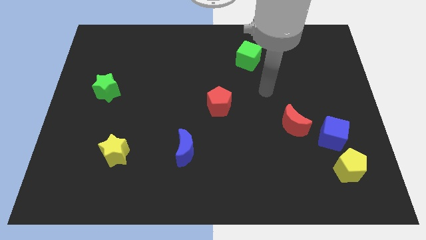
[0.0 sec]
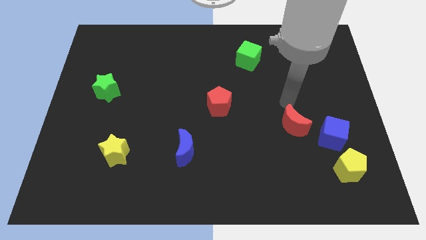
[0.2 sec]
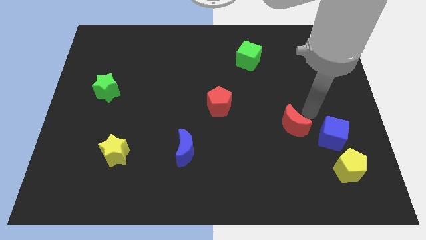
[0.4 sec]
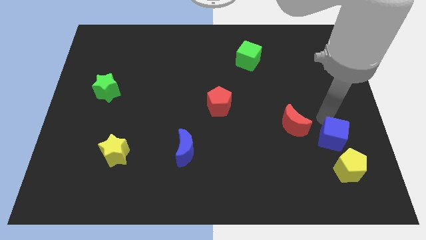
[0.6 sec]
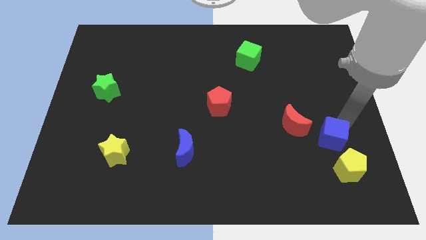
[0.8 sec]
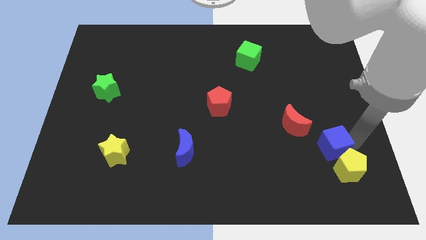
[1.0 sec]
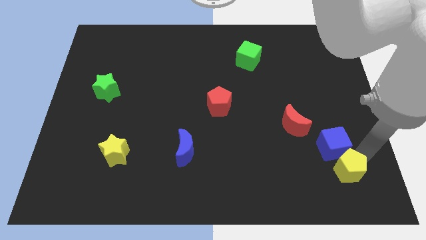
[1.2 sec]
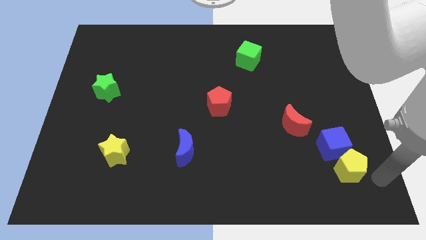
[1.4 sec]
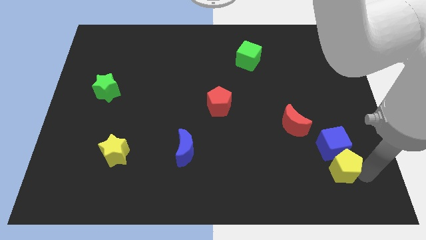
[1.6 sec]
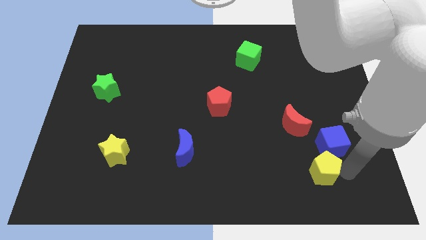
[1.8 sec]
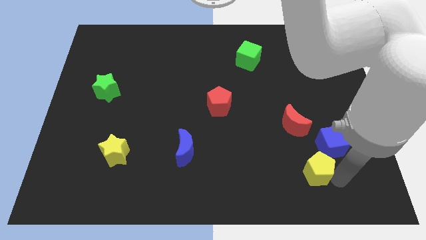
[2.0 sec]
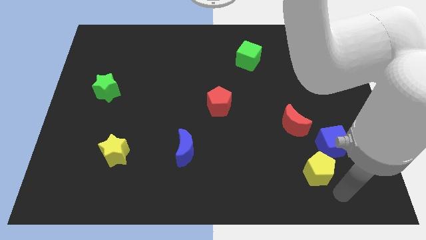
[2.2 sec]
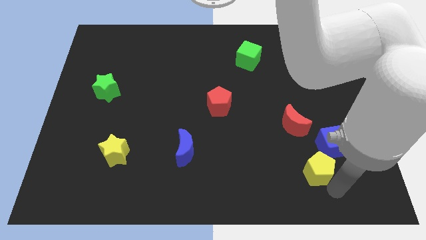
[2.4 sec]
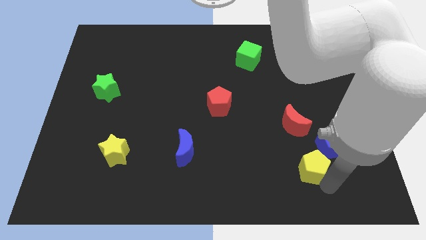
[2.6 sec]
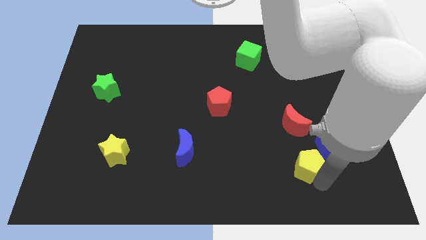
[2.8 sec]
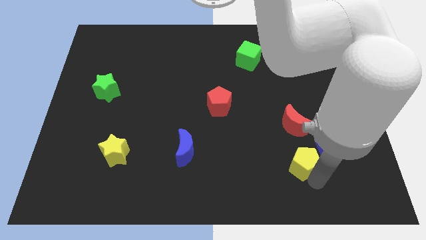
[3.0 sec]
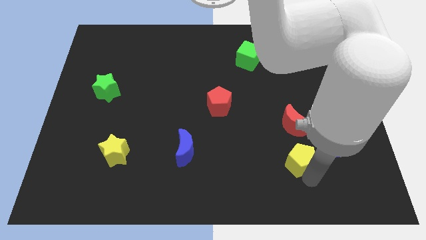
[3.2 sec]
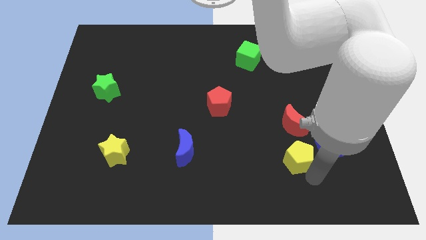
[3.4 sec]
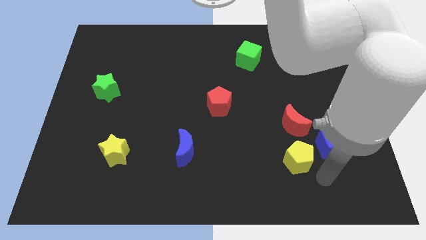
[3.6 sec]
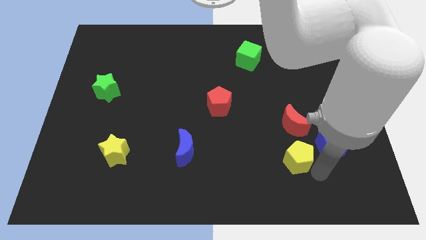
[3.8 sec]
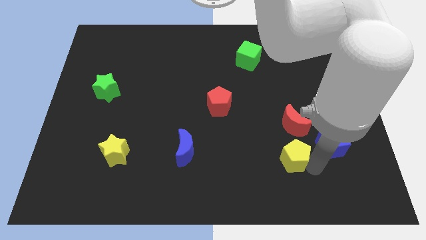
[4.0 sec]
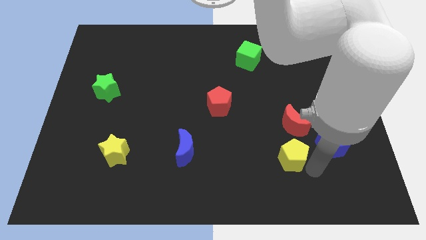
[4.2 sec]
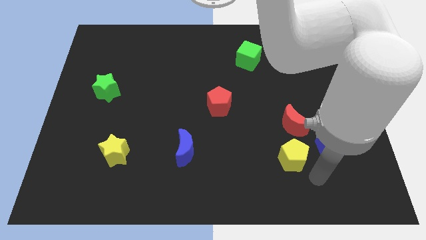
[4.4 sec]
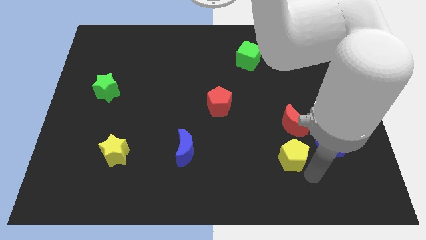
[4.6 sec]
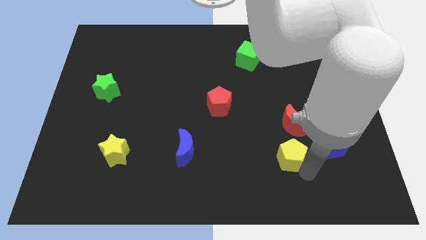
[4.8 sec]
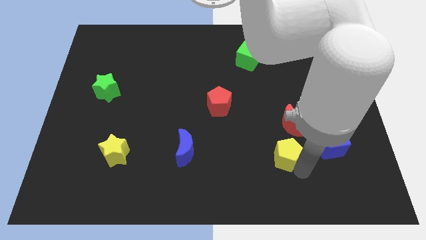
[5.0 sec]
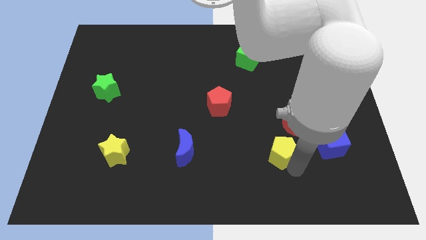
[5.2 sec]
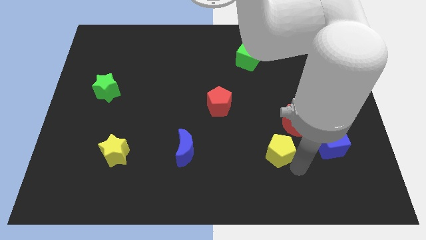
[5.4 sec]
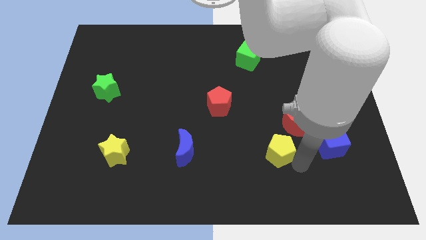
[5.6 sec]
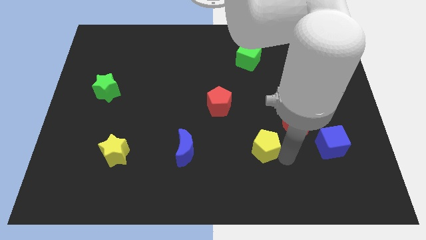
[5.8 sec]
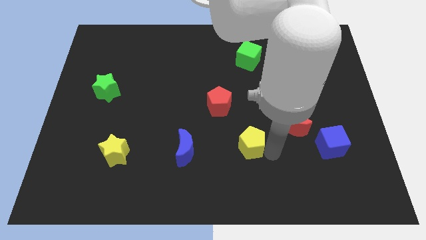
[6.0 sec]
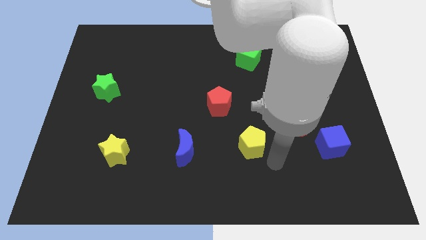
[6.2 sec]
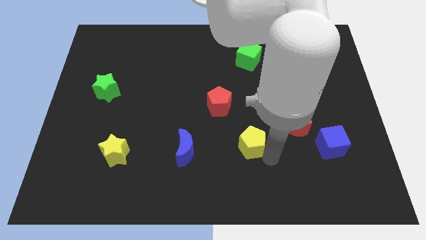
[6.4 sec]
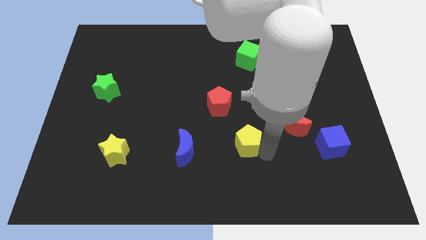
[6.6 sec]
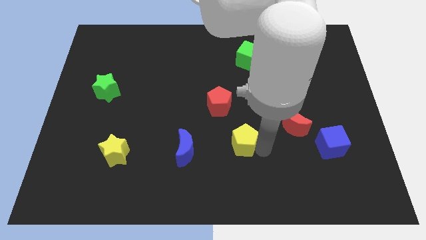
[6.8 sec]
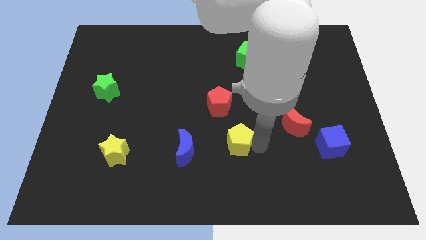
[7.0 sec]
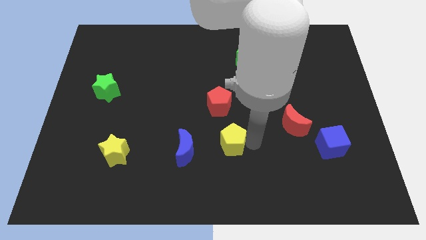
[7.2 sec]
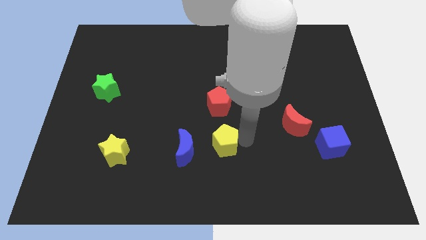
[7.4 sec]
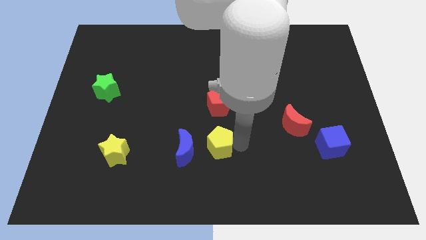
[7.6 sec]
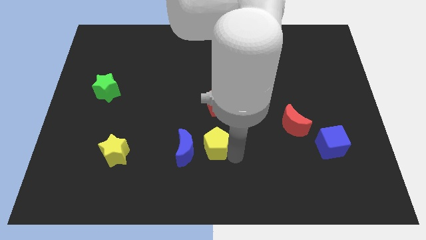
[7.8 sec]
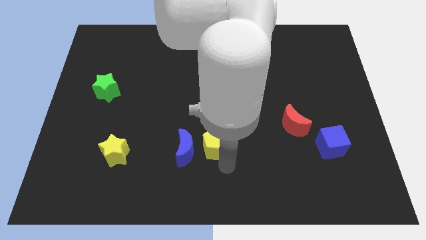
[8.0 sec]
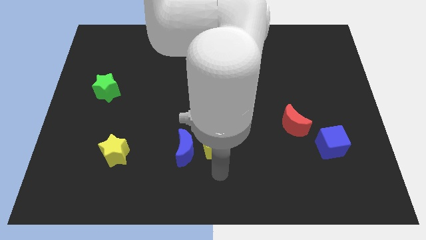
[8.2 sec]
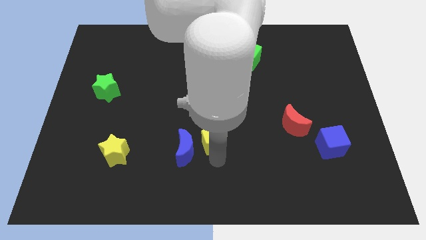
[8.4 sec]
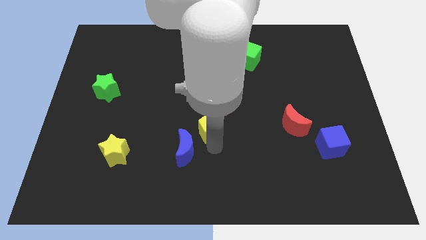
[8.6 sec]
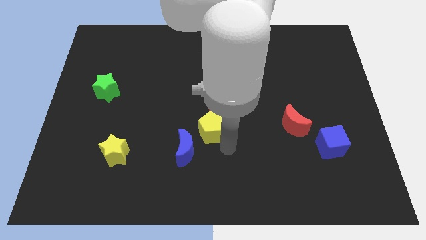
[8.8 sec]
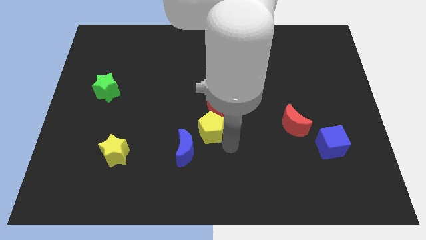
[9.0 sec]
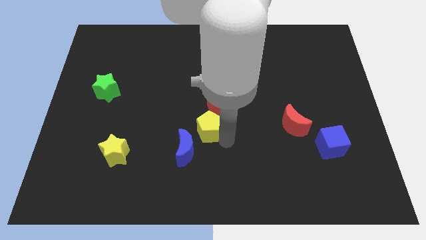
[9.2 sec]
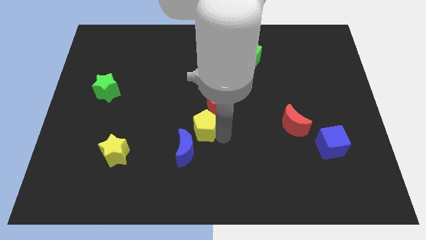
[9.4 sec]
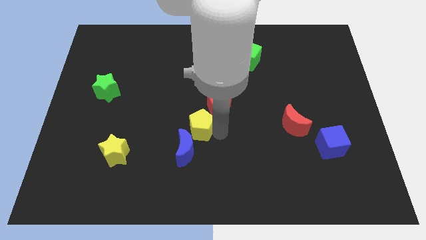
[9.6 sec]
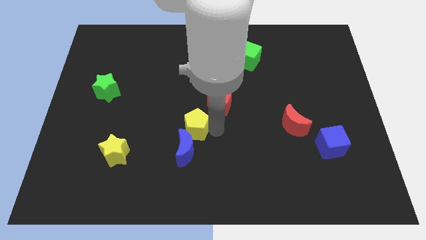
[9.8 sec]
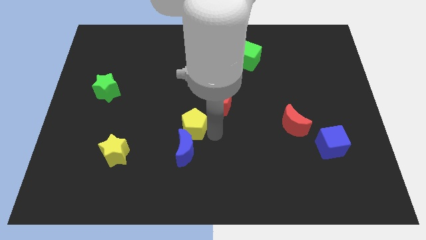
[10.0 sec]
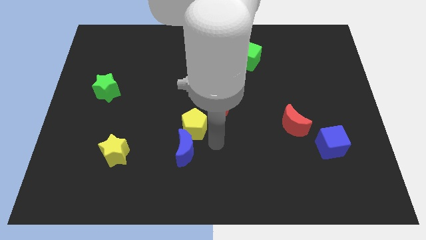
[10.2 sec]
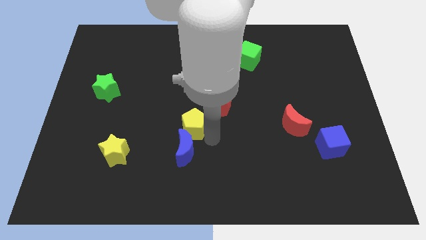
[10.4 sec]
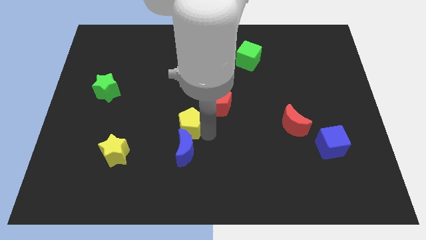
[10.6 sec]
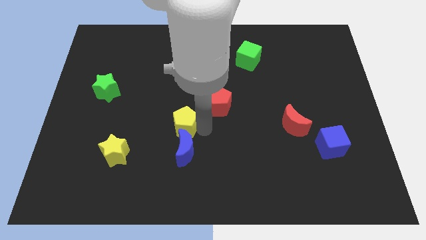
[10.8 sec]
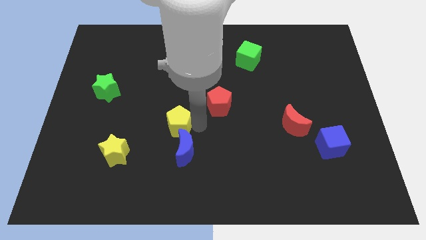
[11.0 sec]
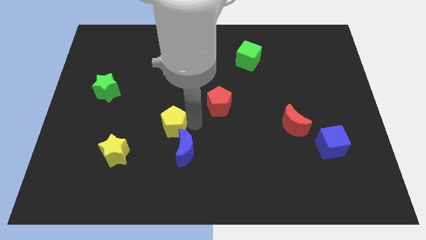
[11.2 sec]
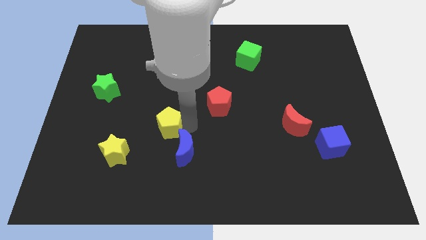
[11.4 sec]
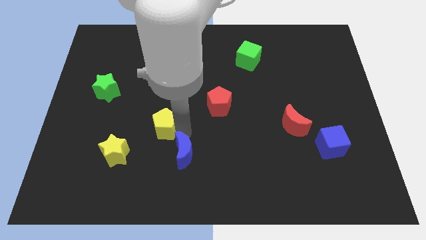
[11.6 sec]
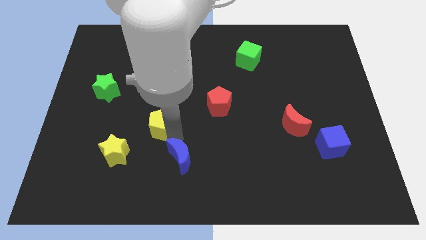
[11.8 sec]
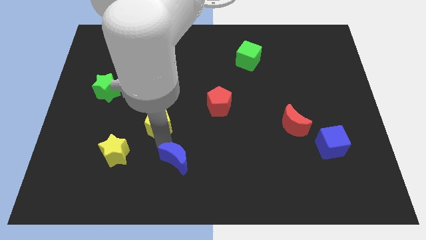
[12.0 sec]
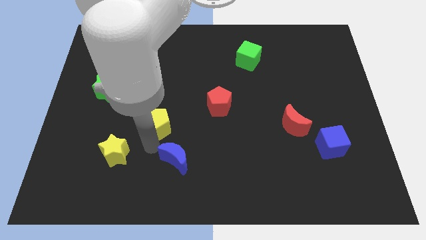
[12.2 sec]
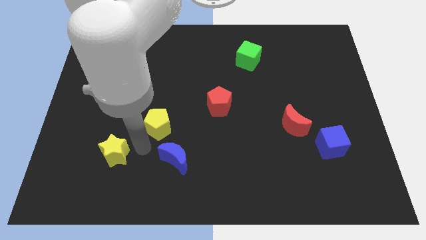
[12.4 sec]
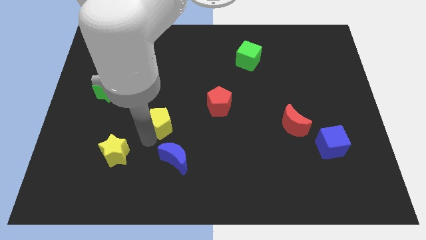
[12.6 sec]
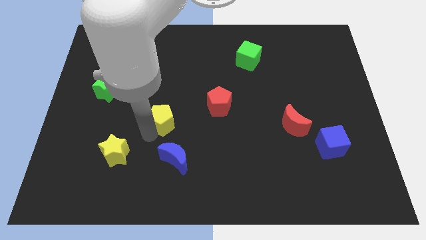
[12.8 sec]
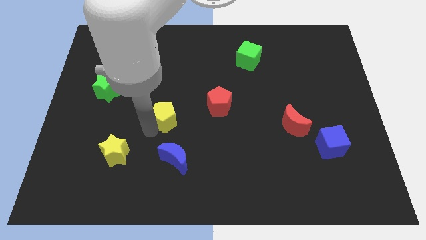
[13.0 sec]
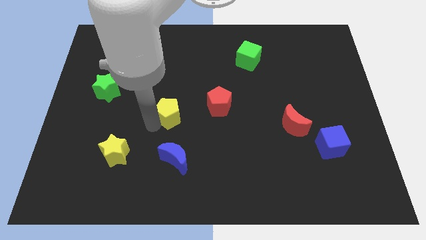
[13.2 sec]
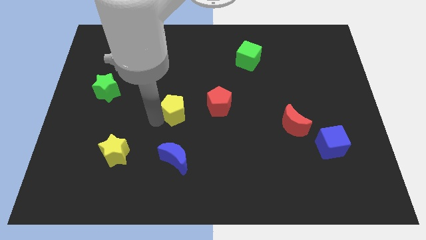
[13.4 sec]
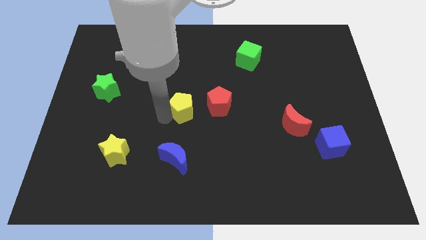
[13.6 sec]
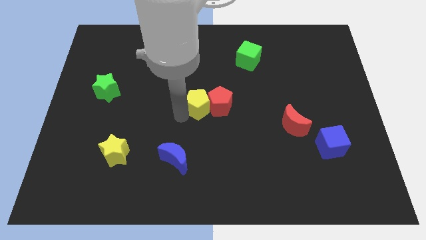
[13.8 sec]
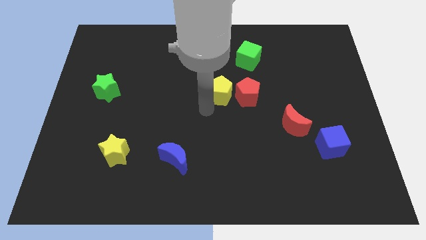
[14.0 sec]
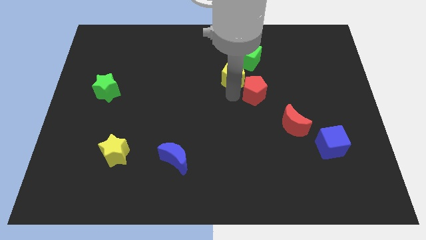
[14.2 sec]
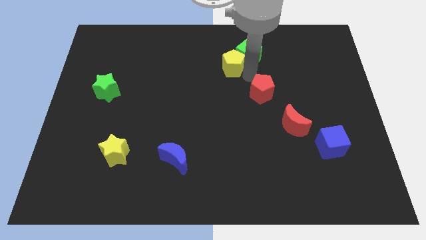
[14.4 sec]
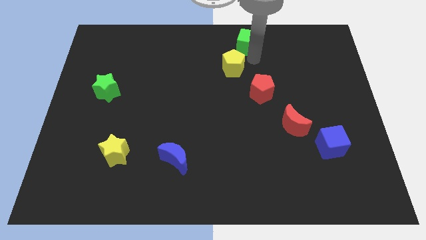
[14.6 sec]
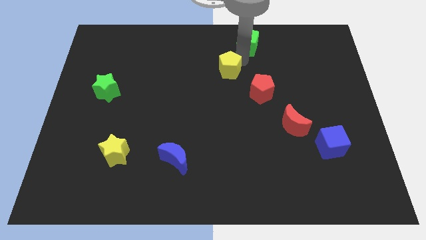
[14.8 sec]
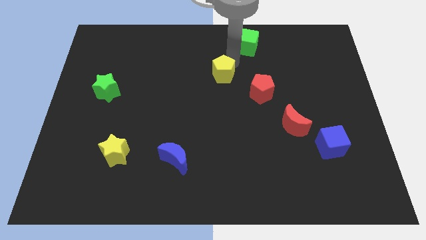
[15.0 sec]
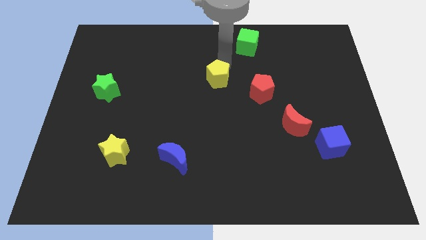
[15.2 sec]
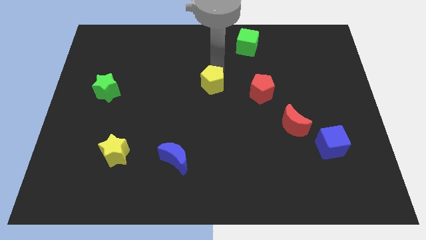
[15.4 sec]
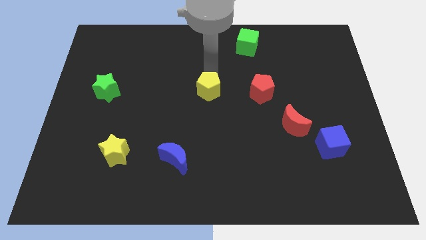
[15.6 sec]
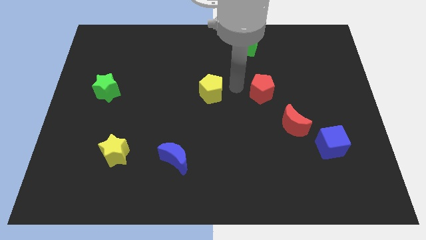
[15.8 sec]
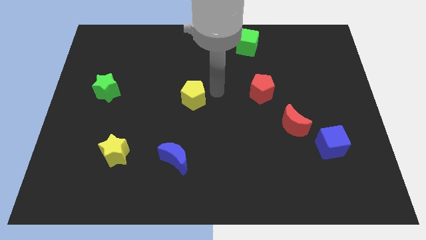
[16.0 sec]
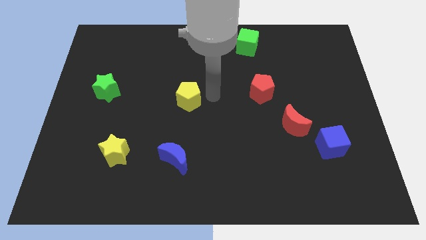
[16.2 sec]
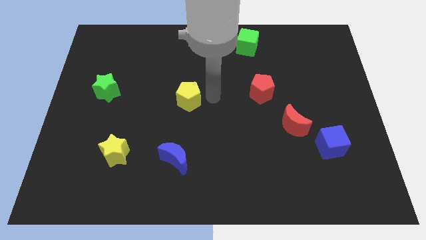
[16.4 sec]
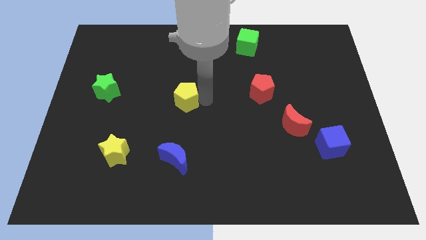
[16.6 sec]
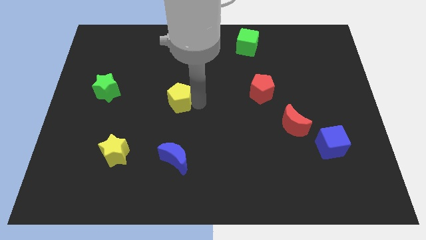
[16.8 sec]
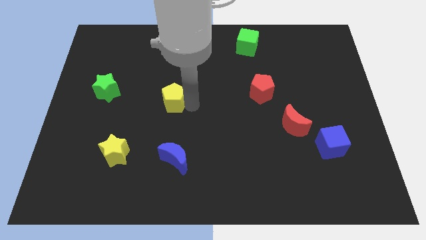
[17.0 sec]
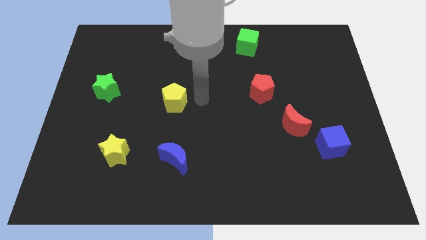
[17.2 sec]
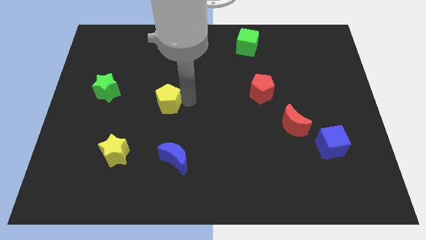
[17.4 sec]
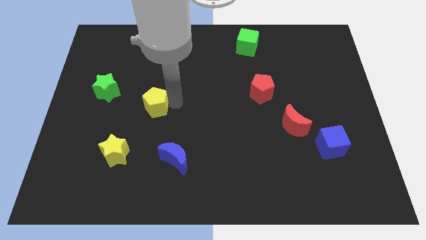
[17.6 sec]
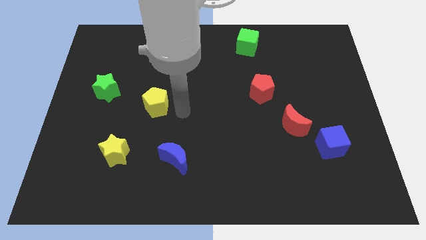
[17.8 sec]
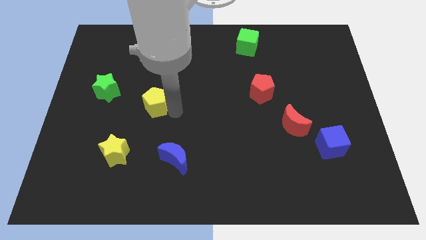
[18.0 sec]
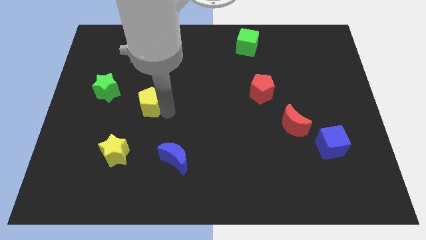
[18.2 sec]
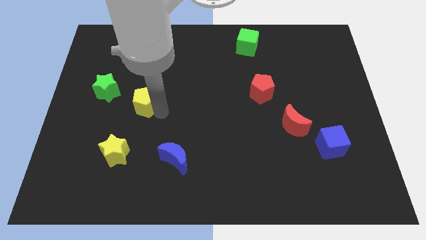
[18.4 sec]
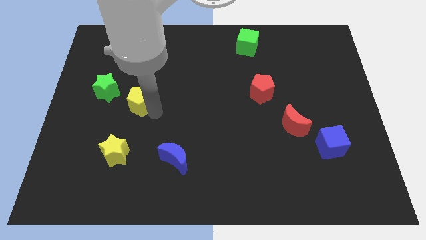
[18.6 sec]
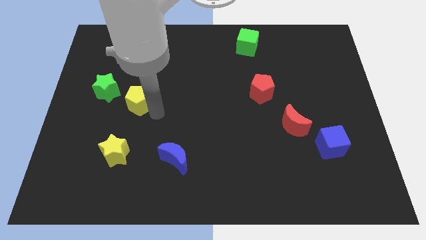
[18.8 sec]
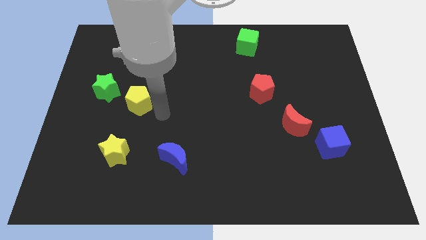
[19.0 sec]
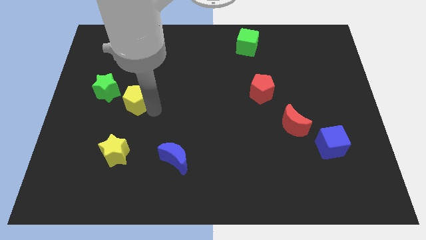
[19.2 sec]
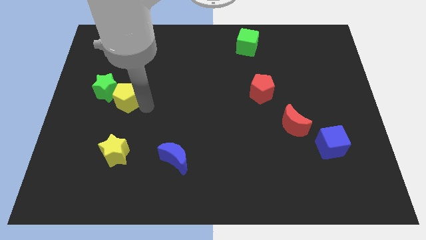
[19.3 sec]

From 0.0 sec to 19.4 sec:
move the yellow pentagon next to the green star
